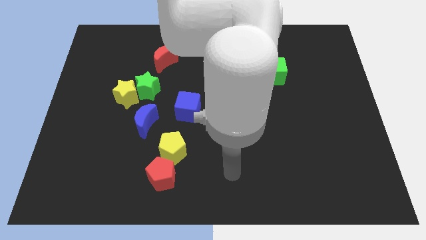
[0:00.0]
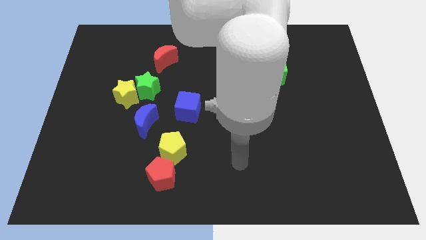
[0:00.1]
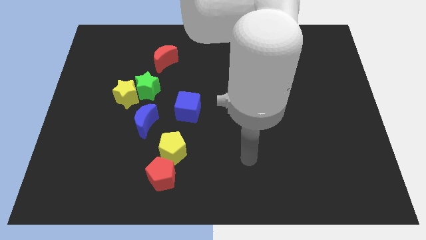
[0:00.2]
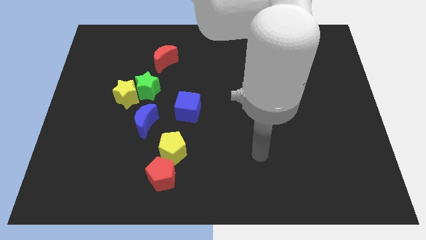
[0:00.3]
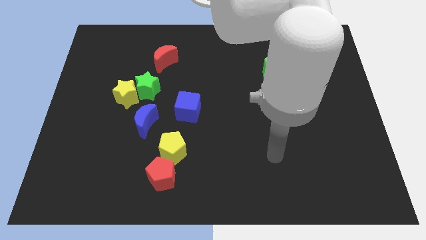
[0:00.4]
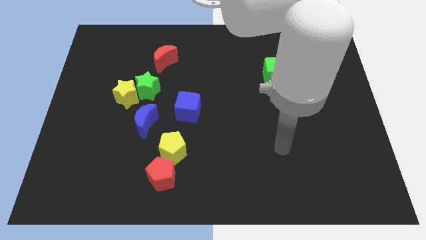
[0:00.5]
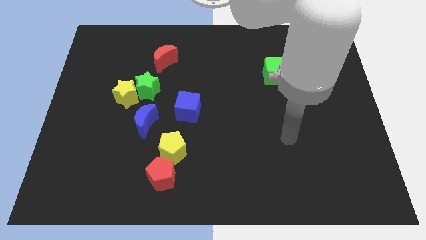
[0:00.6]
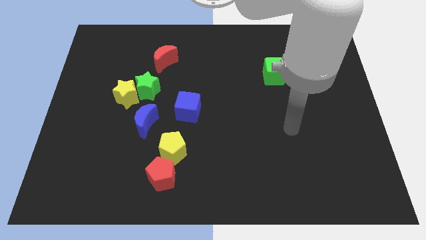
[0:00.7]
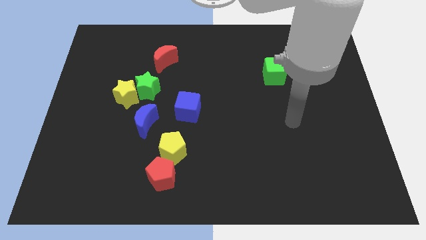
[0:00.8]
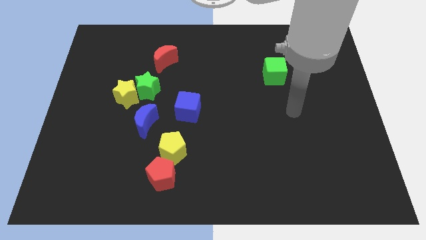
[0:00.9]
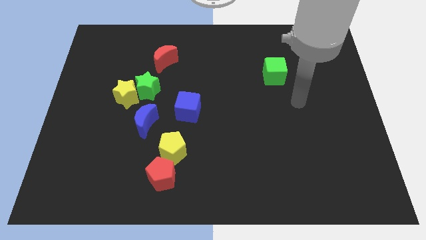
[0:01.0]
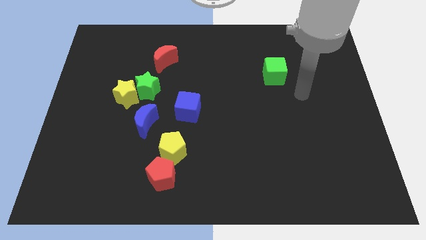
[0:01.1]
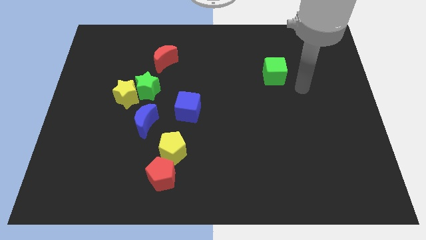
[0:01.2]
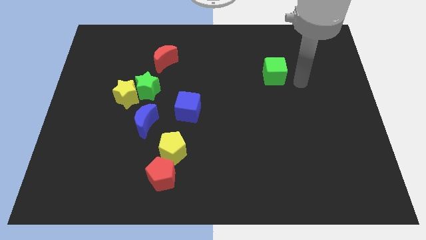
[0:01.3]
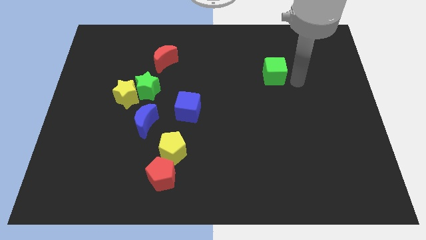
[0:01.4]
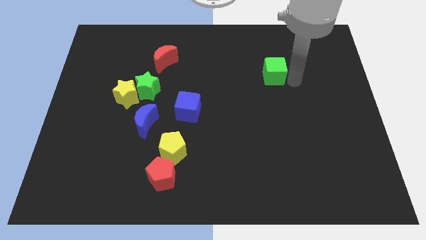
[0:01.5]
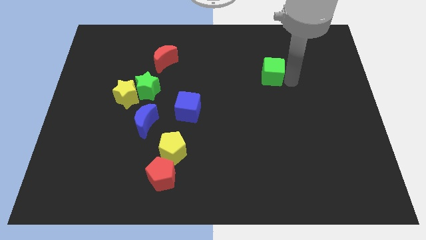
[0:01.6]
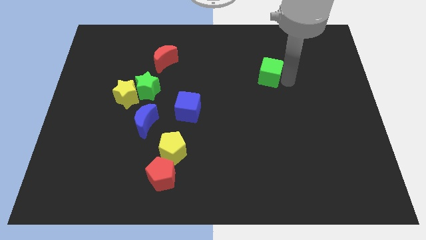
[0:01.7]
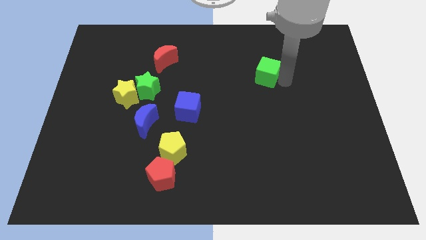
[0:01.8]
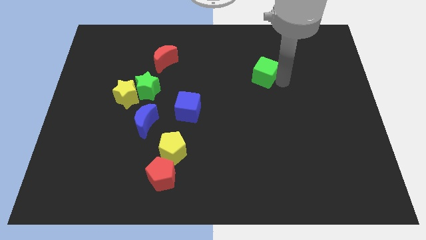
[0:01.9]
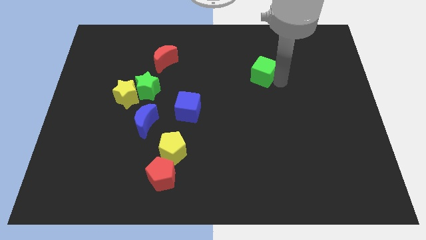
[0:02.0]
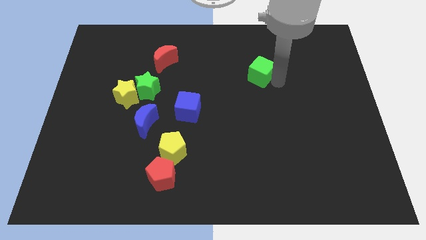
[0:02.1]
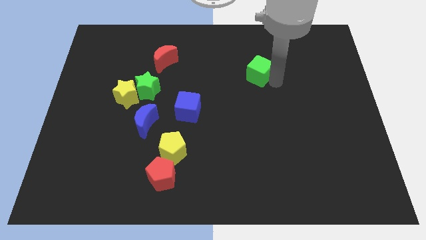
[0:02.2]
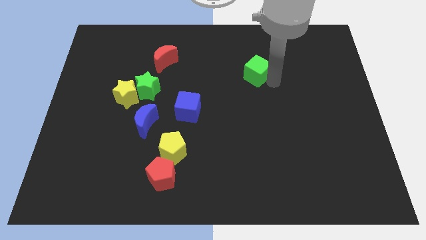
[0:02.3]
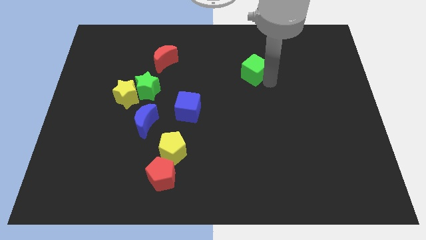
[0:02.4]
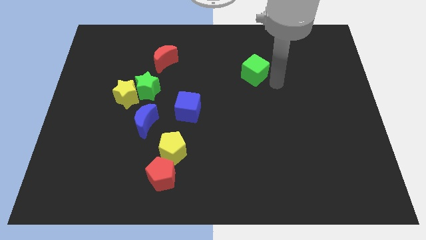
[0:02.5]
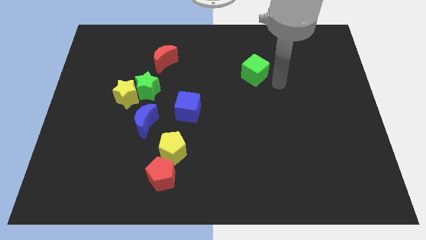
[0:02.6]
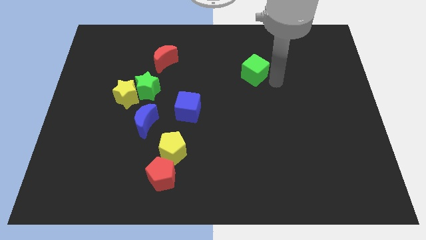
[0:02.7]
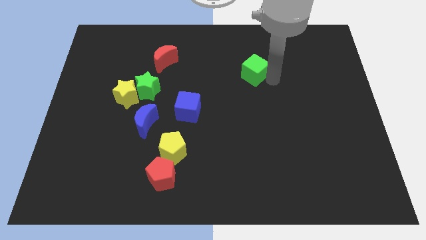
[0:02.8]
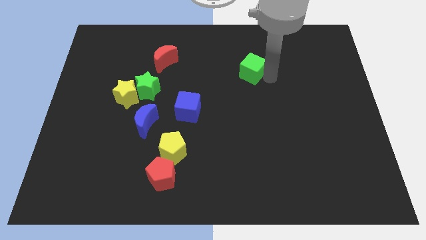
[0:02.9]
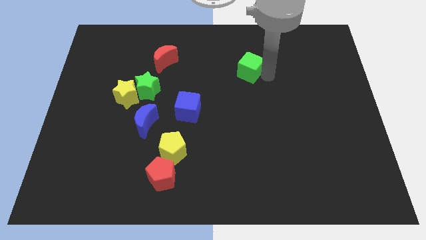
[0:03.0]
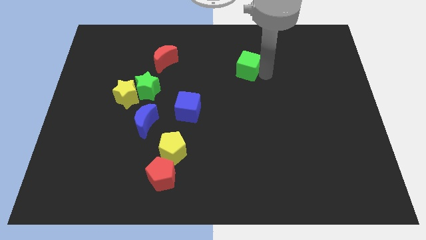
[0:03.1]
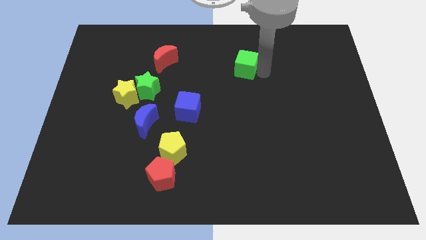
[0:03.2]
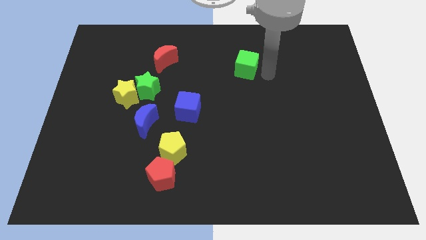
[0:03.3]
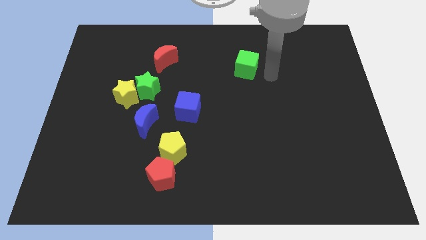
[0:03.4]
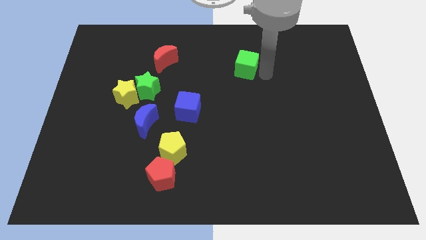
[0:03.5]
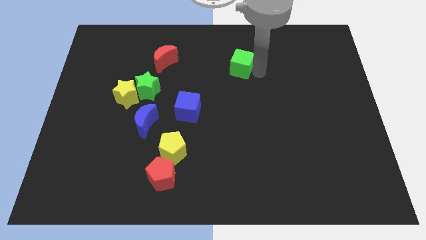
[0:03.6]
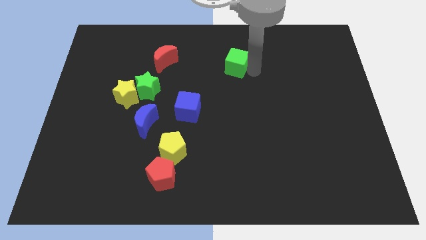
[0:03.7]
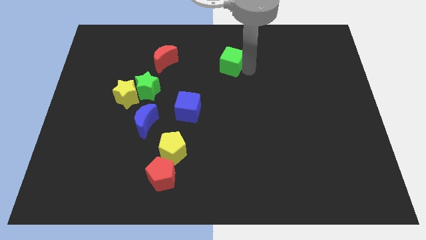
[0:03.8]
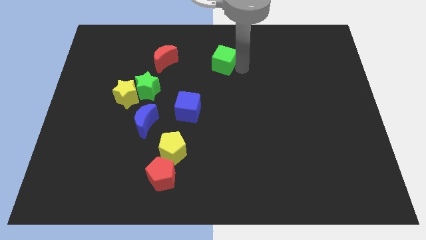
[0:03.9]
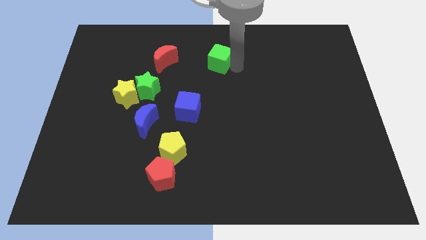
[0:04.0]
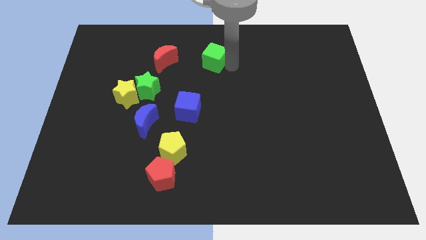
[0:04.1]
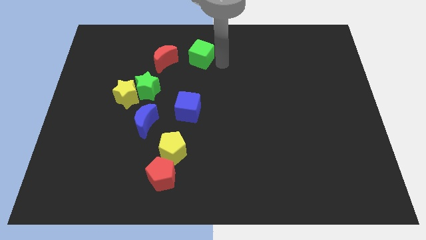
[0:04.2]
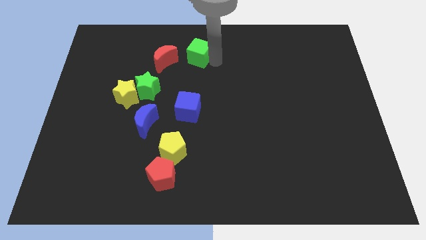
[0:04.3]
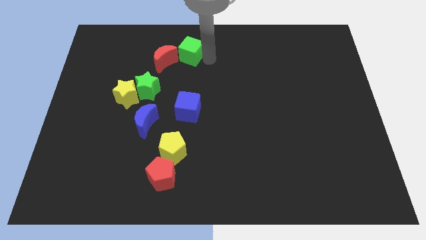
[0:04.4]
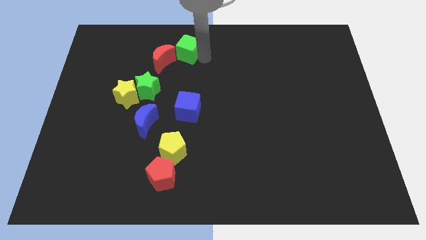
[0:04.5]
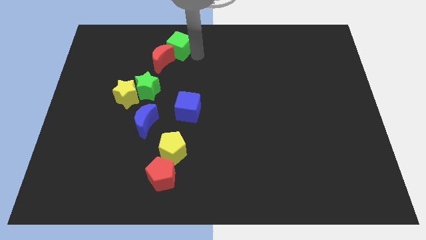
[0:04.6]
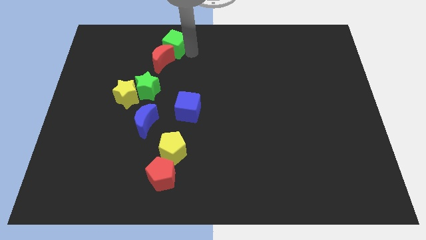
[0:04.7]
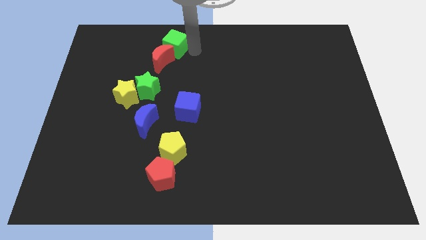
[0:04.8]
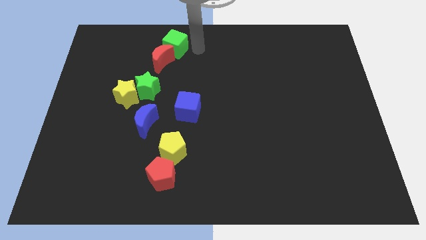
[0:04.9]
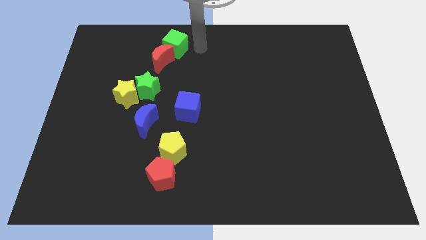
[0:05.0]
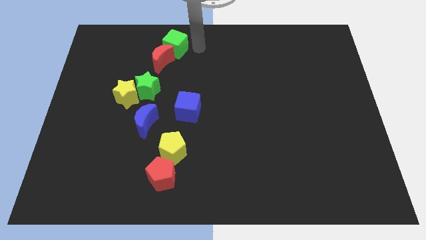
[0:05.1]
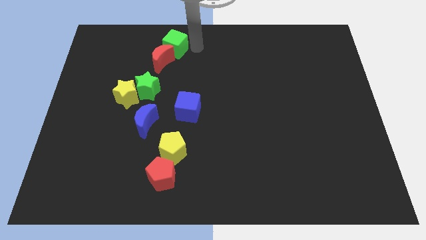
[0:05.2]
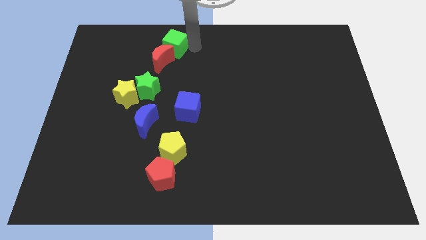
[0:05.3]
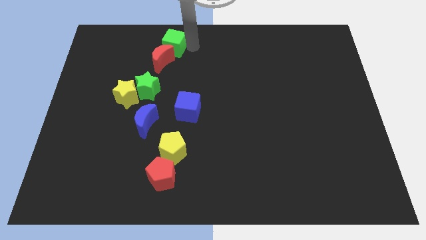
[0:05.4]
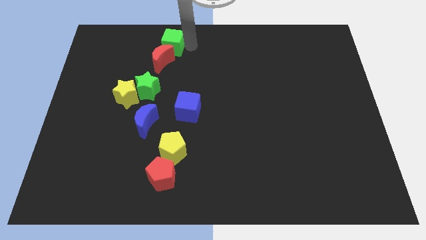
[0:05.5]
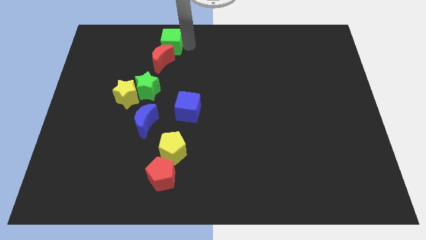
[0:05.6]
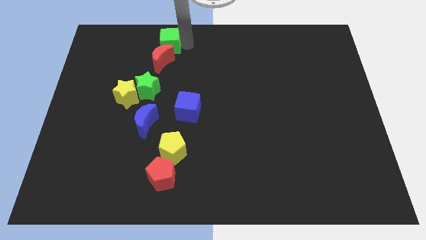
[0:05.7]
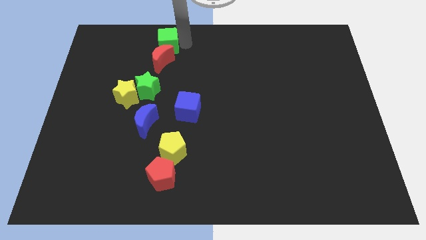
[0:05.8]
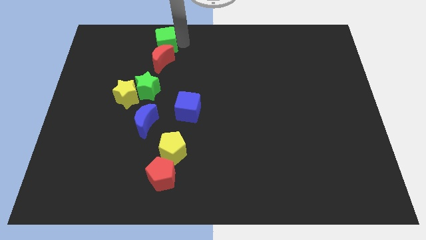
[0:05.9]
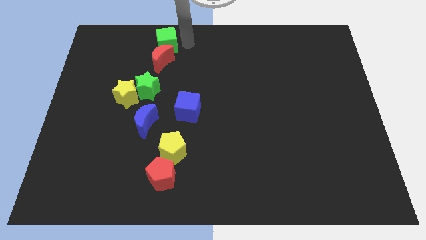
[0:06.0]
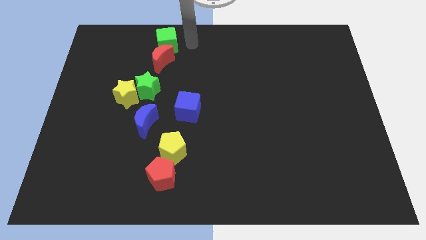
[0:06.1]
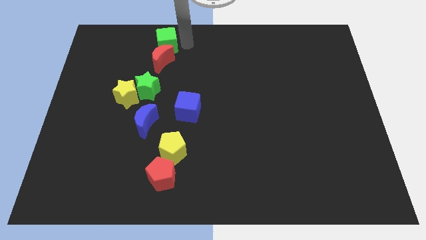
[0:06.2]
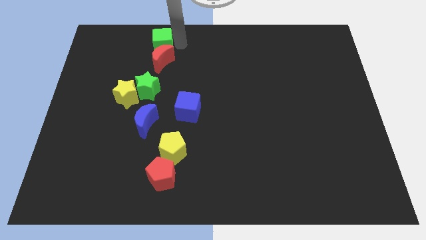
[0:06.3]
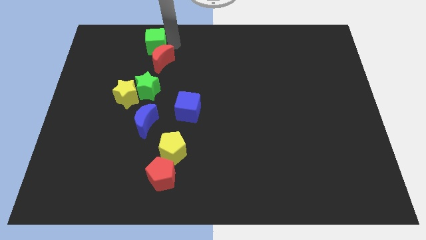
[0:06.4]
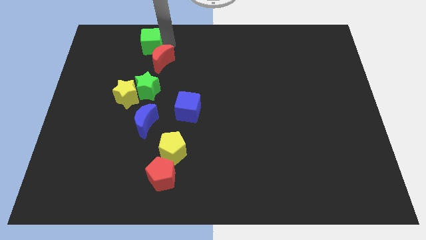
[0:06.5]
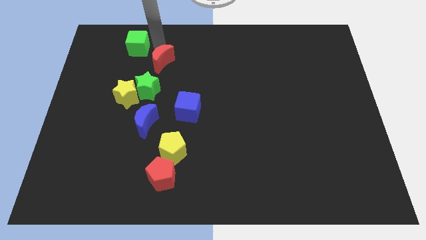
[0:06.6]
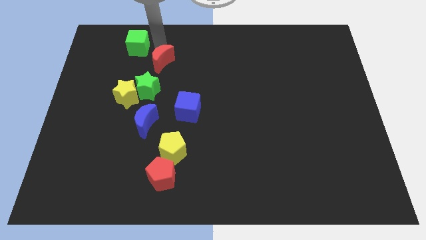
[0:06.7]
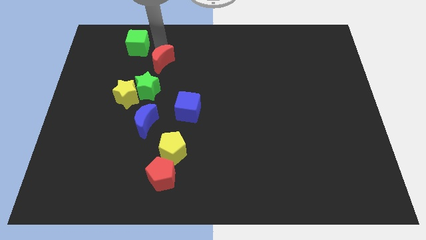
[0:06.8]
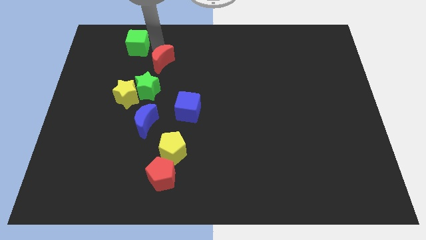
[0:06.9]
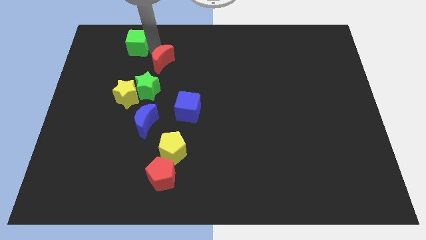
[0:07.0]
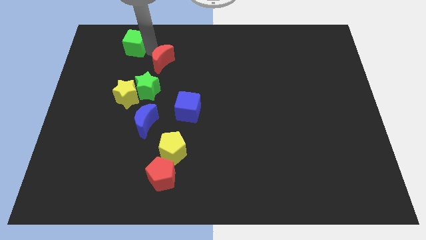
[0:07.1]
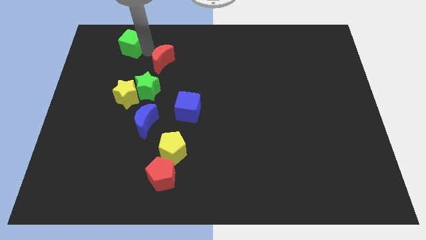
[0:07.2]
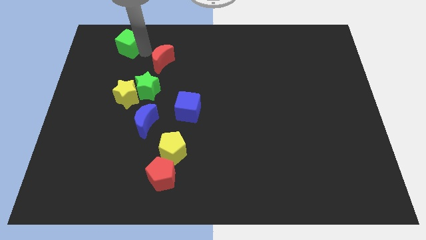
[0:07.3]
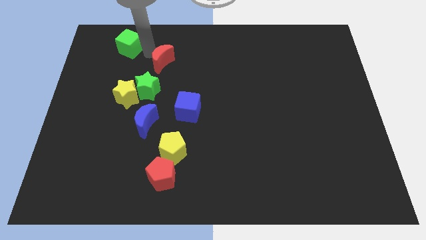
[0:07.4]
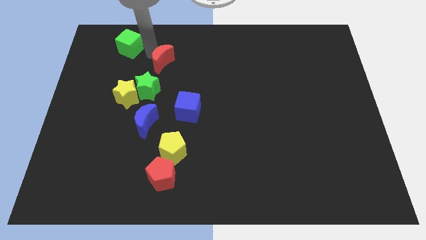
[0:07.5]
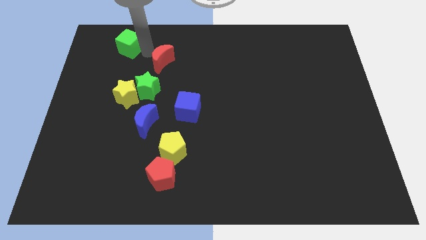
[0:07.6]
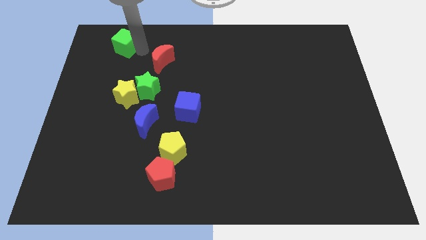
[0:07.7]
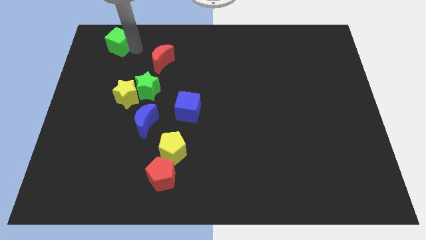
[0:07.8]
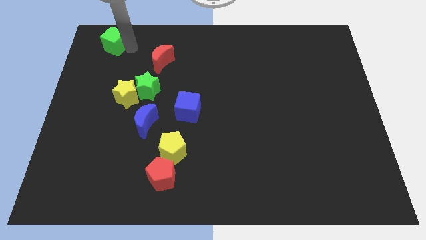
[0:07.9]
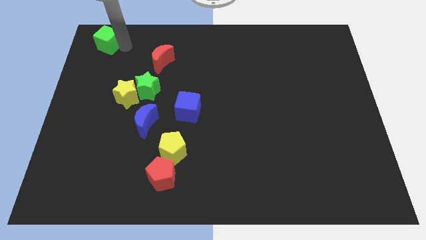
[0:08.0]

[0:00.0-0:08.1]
move the green cube to the top left
